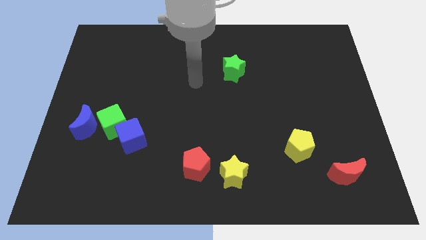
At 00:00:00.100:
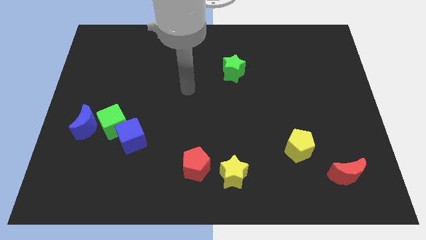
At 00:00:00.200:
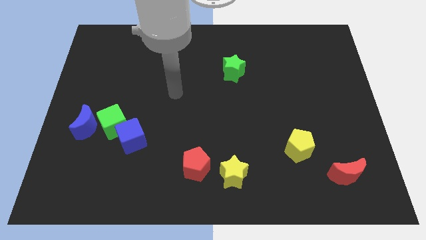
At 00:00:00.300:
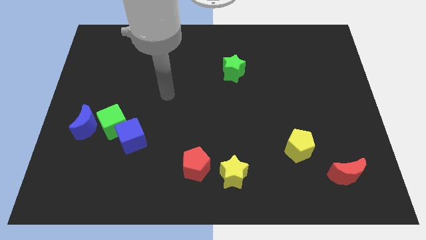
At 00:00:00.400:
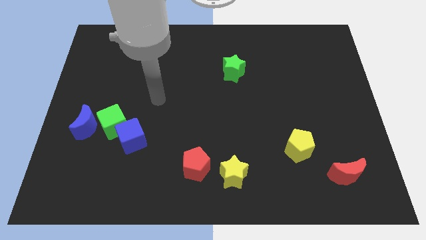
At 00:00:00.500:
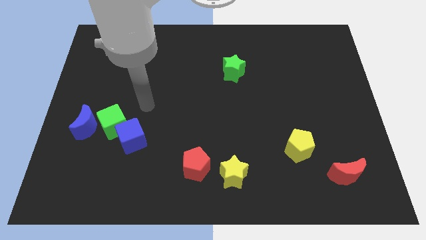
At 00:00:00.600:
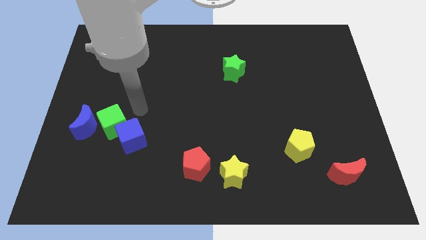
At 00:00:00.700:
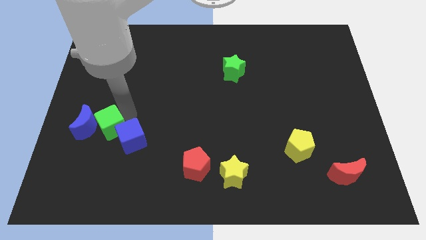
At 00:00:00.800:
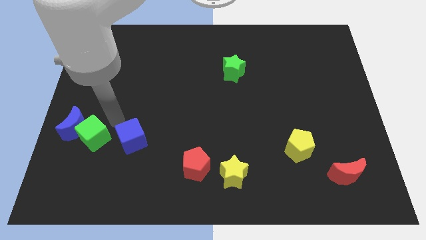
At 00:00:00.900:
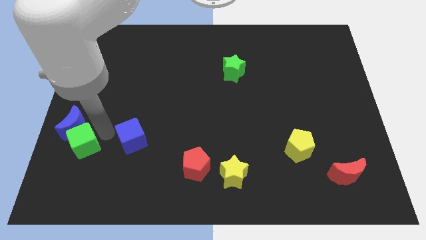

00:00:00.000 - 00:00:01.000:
separate the blue cube from the green cube

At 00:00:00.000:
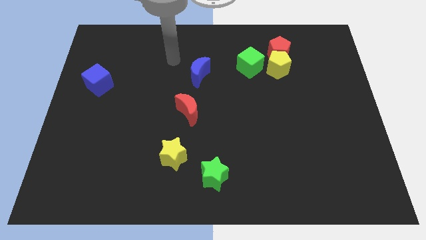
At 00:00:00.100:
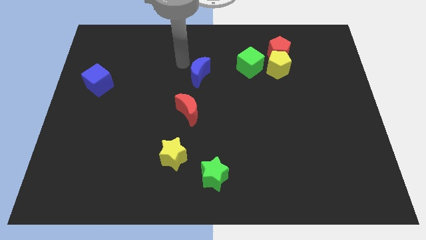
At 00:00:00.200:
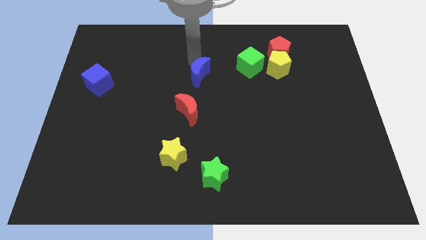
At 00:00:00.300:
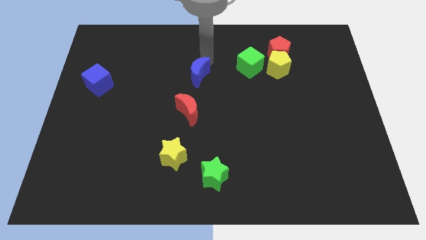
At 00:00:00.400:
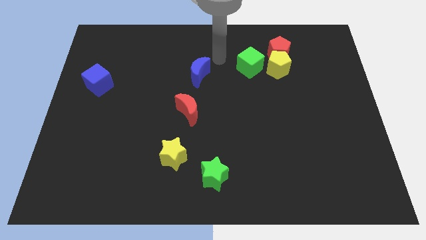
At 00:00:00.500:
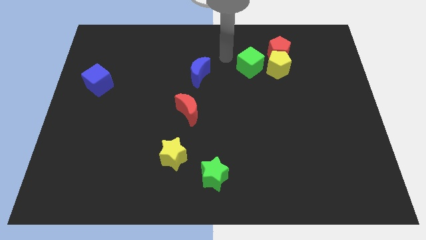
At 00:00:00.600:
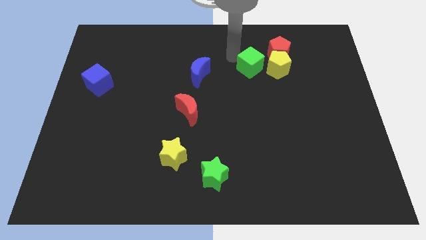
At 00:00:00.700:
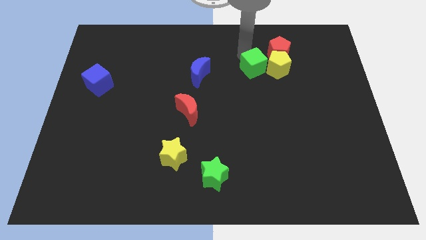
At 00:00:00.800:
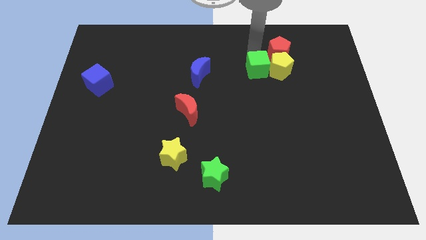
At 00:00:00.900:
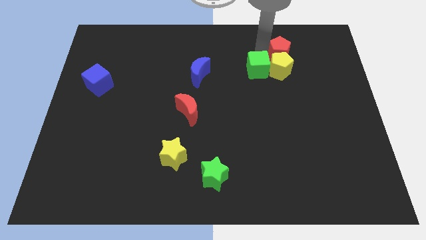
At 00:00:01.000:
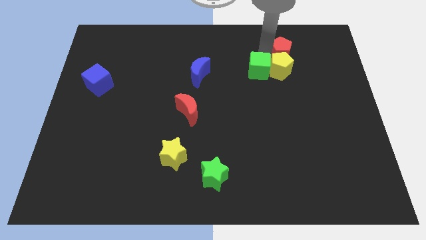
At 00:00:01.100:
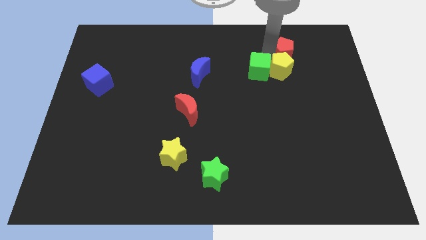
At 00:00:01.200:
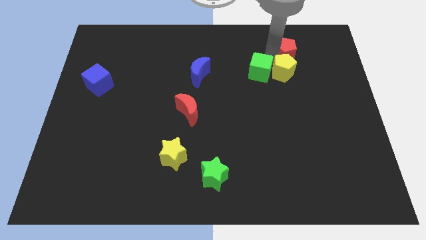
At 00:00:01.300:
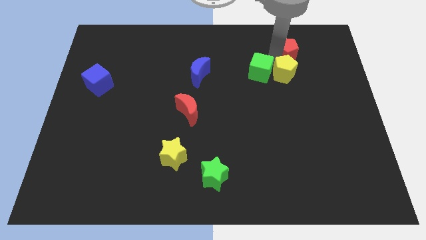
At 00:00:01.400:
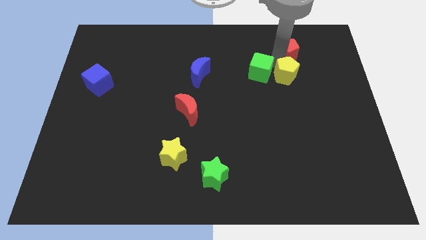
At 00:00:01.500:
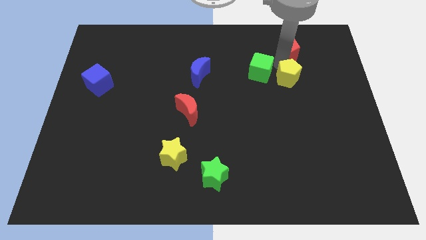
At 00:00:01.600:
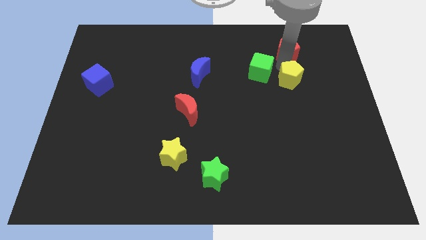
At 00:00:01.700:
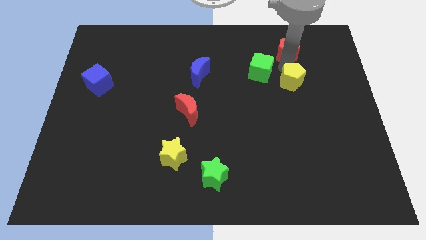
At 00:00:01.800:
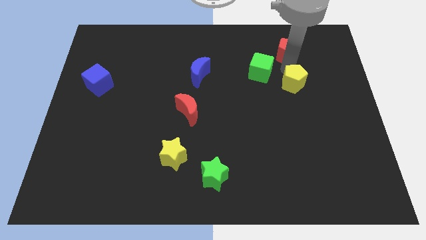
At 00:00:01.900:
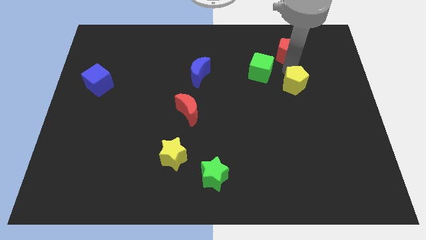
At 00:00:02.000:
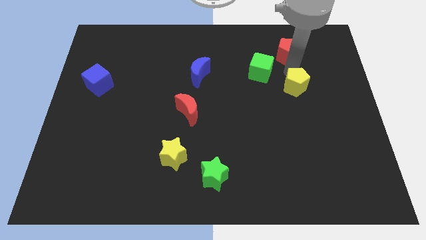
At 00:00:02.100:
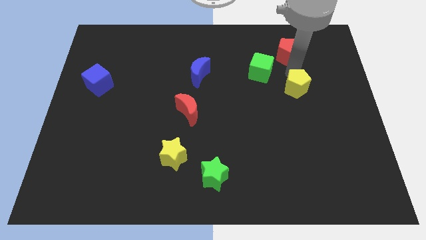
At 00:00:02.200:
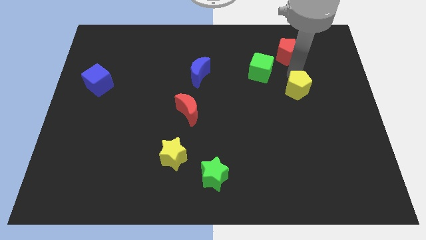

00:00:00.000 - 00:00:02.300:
move the yellow pentagon away from the red pentagon and green cube

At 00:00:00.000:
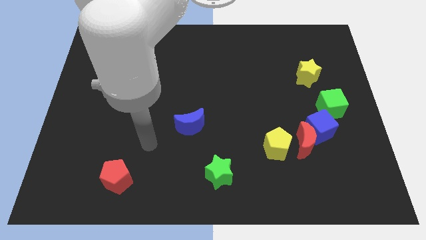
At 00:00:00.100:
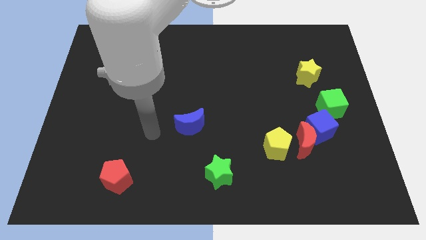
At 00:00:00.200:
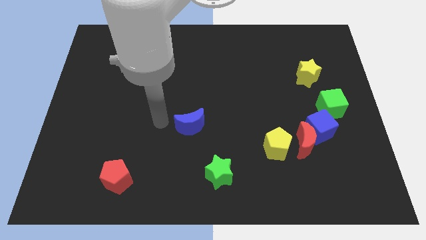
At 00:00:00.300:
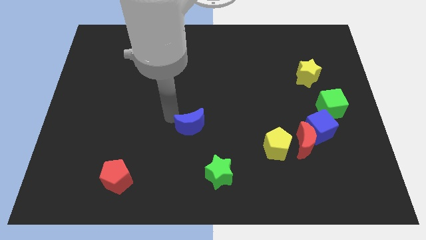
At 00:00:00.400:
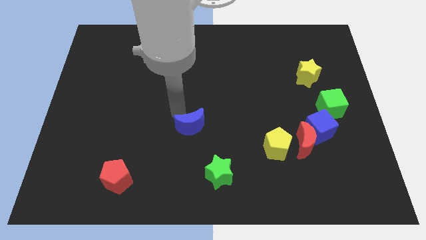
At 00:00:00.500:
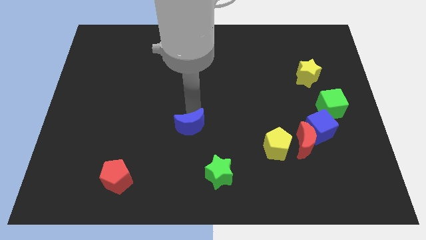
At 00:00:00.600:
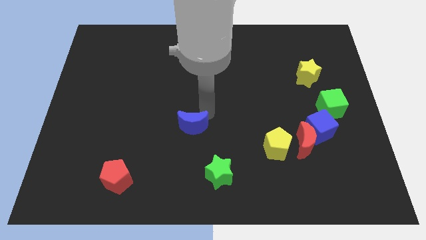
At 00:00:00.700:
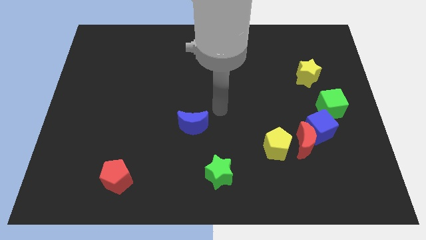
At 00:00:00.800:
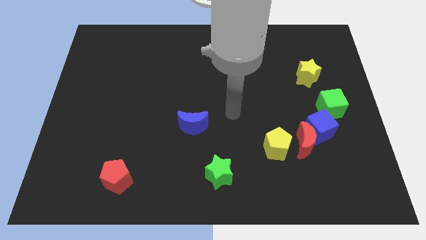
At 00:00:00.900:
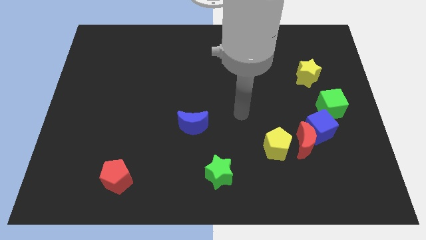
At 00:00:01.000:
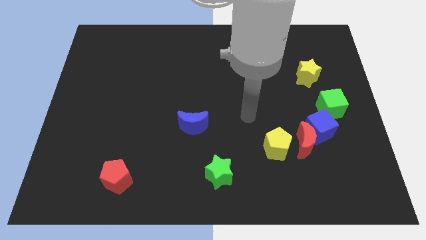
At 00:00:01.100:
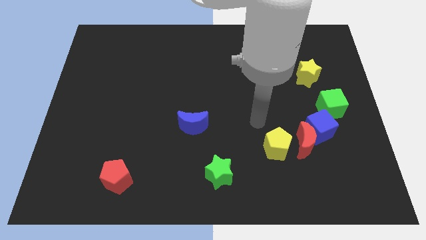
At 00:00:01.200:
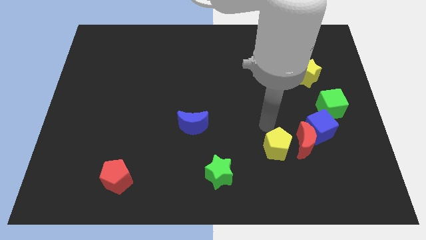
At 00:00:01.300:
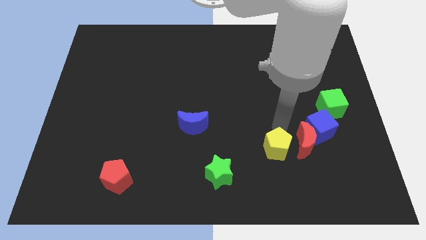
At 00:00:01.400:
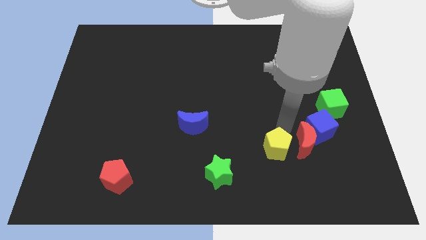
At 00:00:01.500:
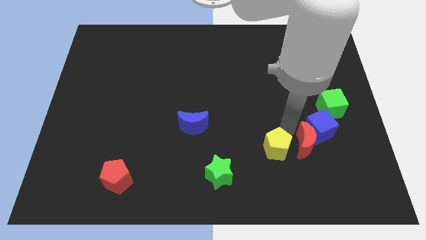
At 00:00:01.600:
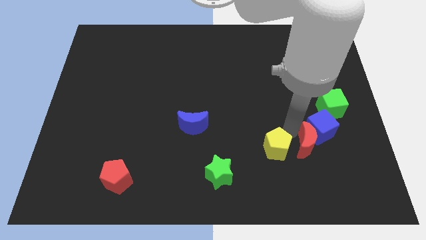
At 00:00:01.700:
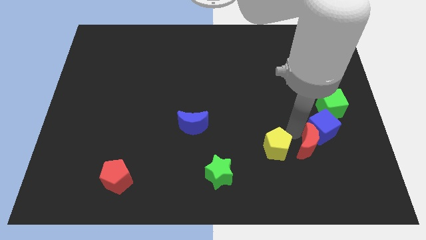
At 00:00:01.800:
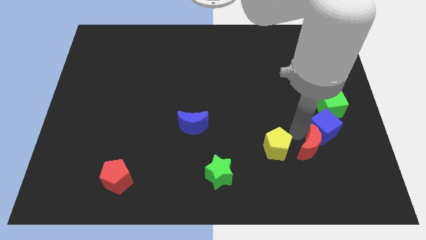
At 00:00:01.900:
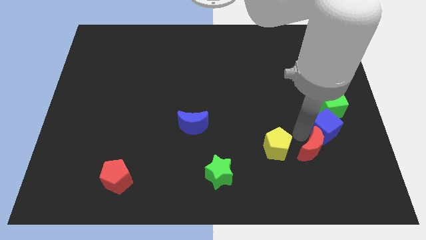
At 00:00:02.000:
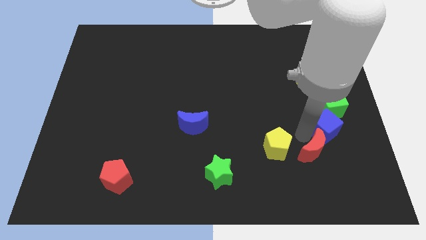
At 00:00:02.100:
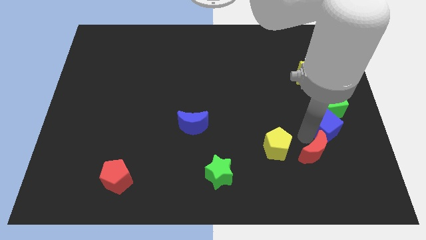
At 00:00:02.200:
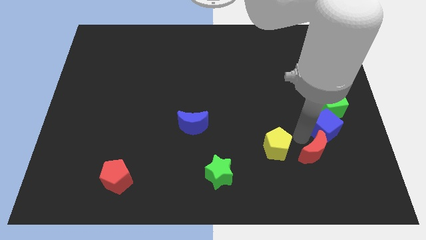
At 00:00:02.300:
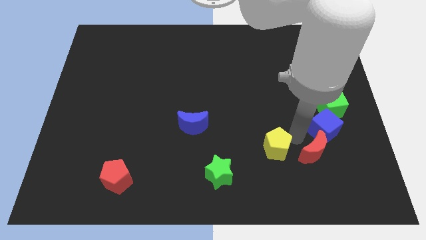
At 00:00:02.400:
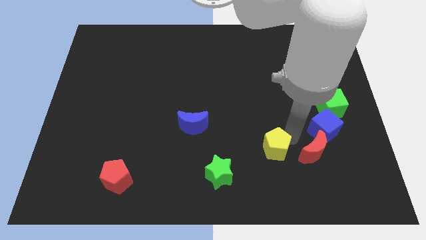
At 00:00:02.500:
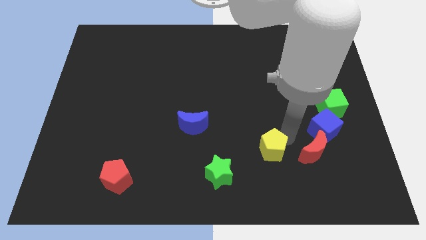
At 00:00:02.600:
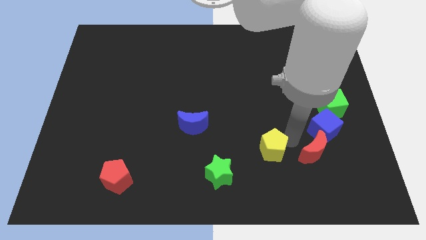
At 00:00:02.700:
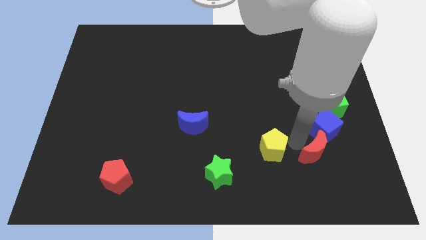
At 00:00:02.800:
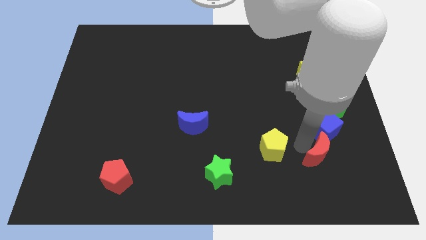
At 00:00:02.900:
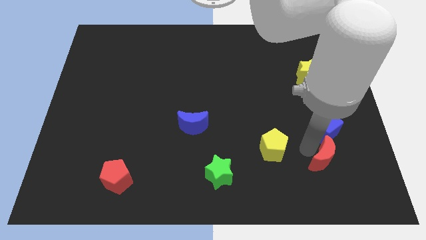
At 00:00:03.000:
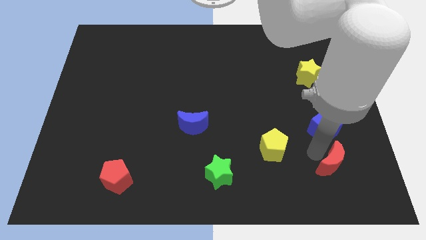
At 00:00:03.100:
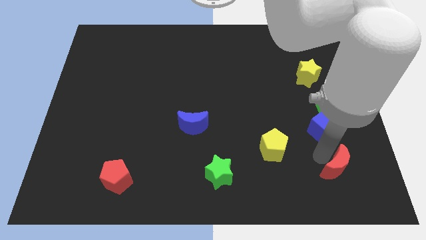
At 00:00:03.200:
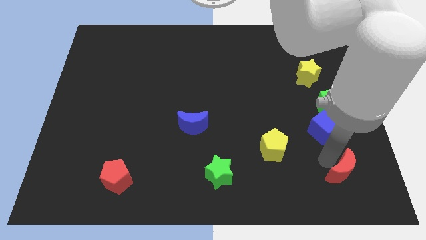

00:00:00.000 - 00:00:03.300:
pull the red moon apart from the blue cube and yellow pentagon

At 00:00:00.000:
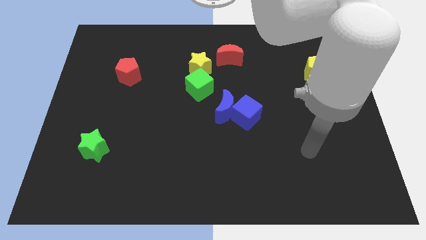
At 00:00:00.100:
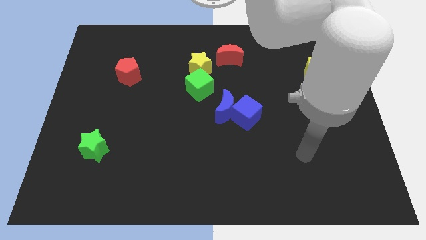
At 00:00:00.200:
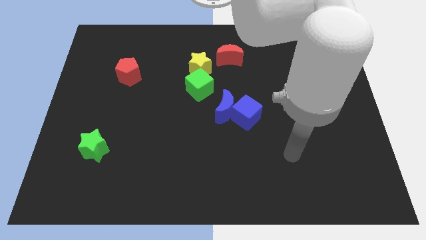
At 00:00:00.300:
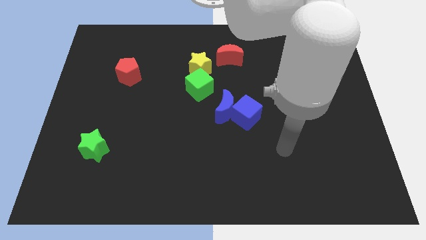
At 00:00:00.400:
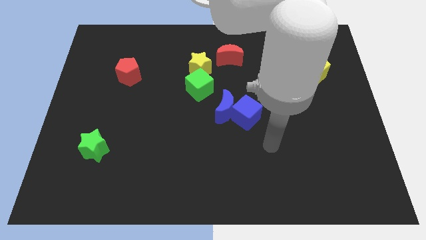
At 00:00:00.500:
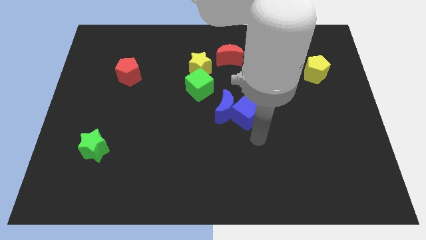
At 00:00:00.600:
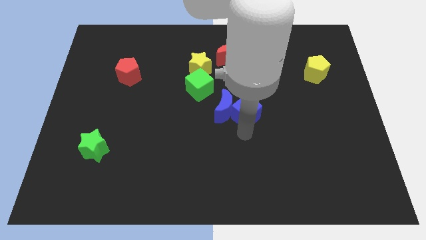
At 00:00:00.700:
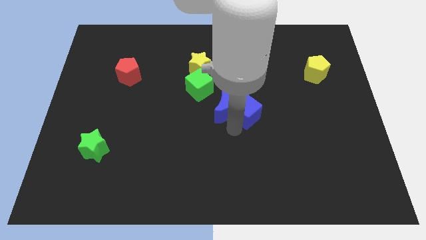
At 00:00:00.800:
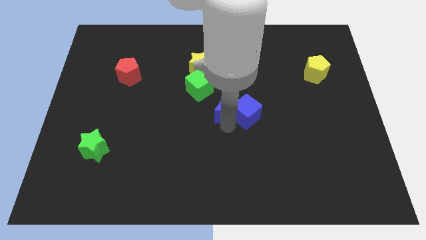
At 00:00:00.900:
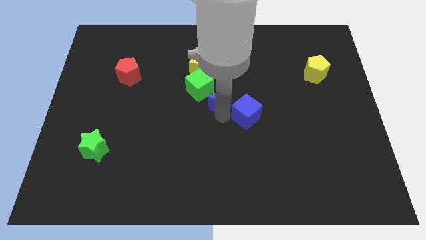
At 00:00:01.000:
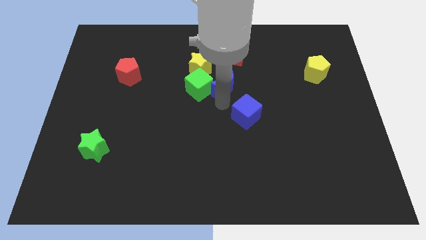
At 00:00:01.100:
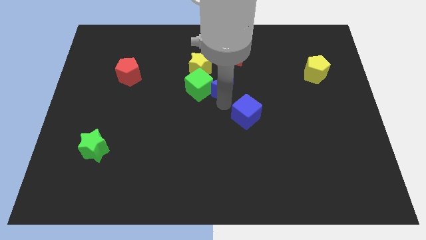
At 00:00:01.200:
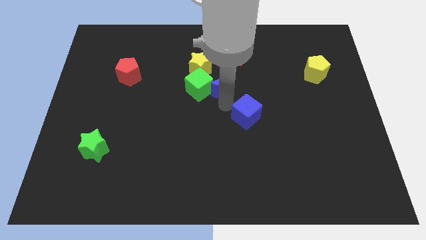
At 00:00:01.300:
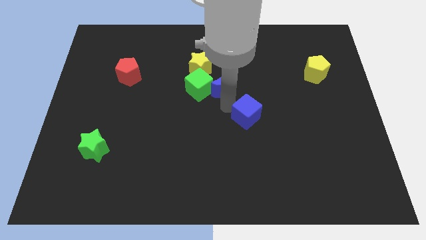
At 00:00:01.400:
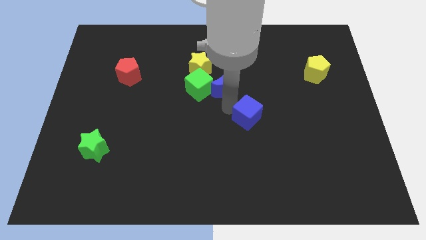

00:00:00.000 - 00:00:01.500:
pull the blue cube apart from the blue moon

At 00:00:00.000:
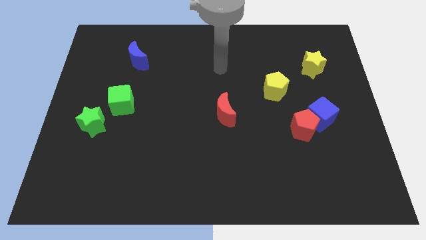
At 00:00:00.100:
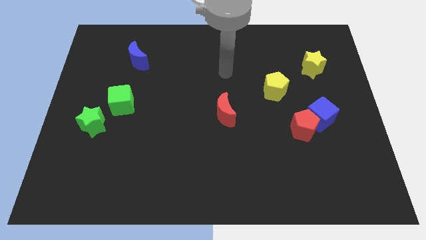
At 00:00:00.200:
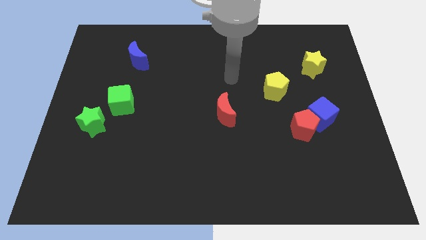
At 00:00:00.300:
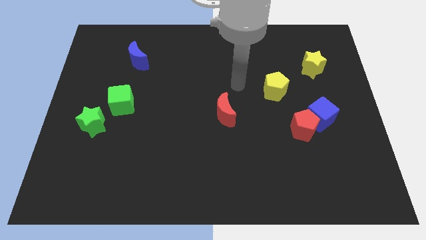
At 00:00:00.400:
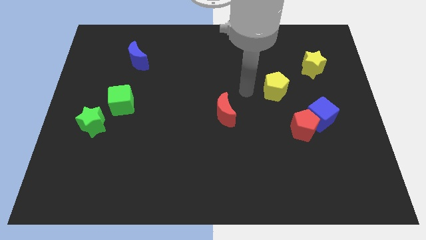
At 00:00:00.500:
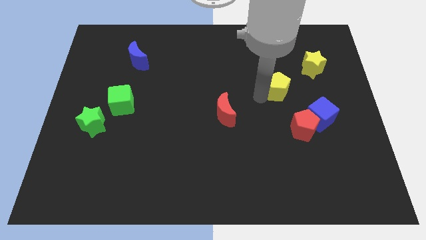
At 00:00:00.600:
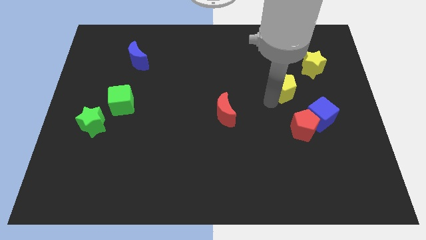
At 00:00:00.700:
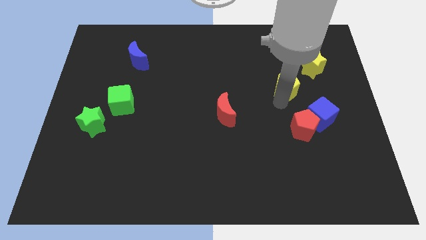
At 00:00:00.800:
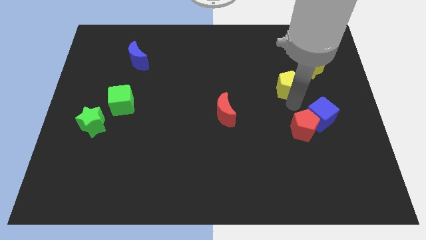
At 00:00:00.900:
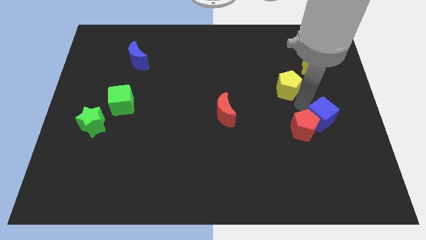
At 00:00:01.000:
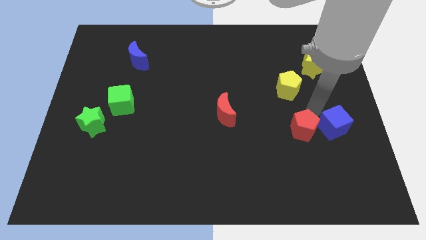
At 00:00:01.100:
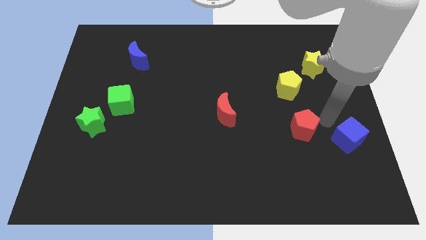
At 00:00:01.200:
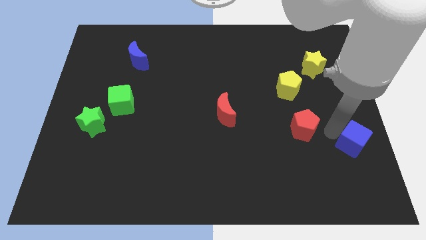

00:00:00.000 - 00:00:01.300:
move the red pentagon away from the blue cube
